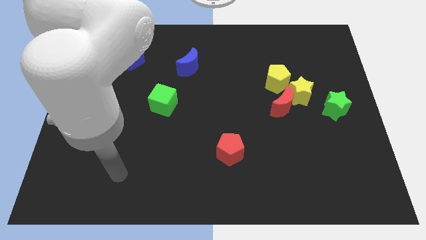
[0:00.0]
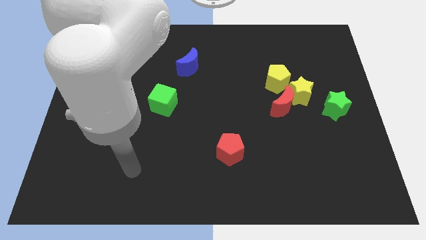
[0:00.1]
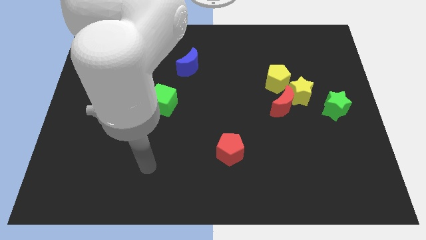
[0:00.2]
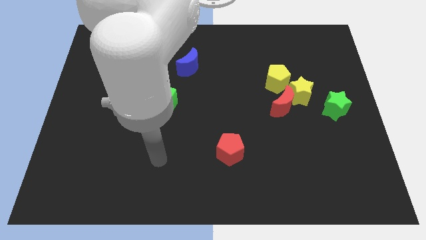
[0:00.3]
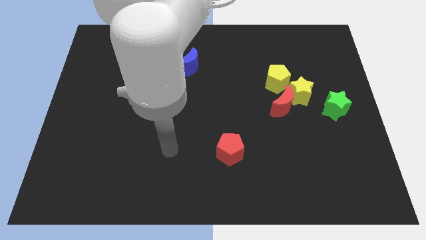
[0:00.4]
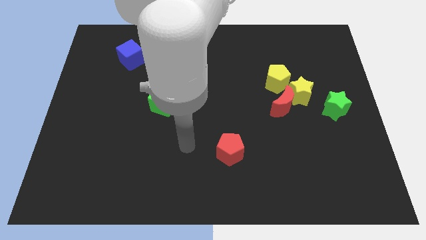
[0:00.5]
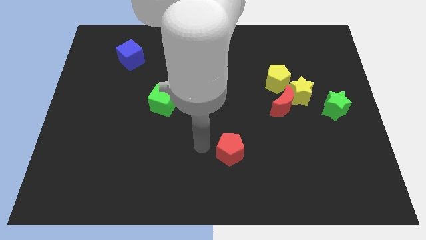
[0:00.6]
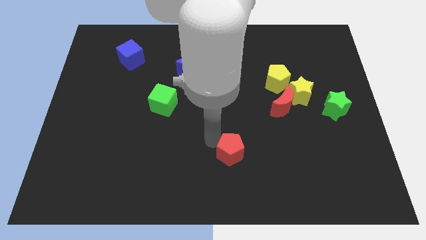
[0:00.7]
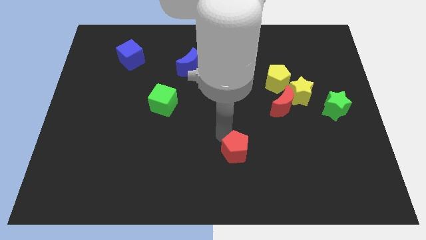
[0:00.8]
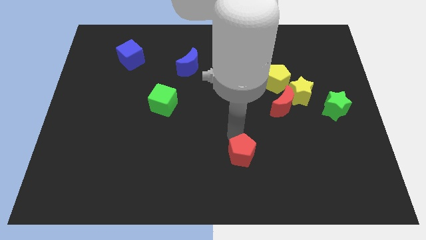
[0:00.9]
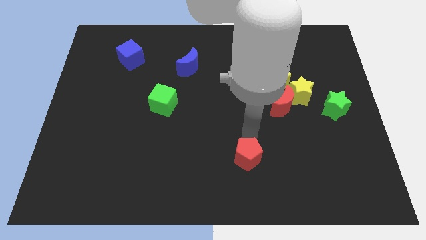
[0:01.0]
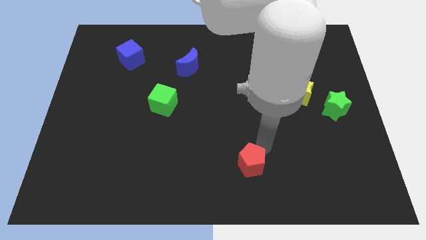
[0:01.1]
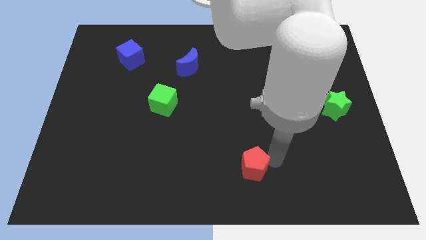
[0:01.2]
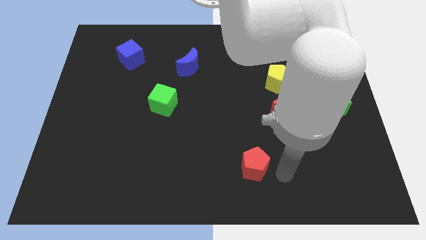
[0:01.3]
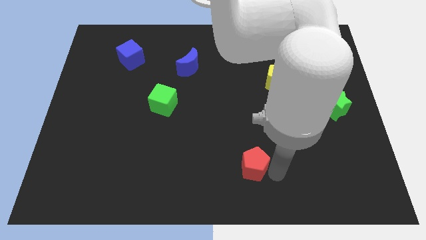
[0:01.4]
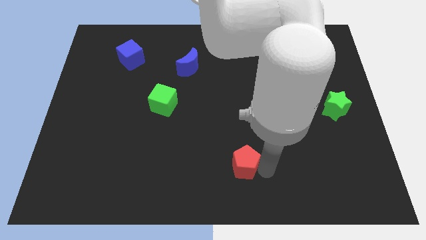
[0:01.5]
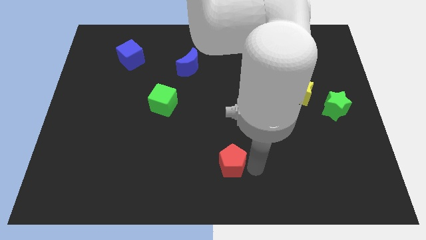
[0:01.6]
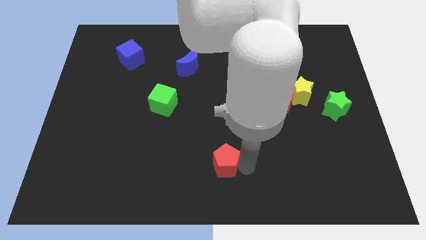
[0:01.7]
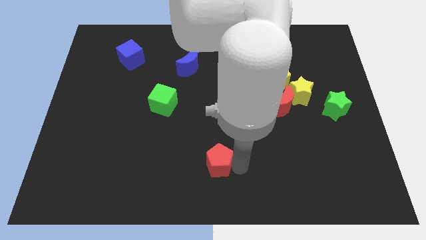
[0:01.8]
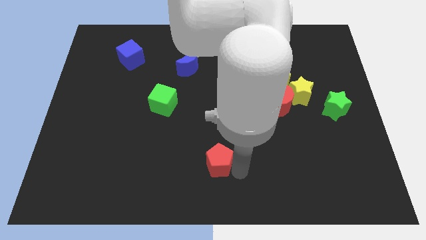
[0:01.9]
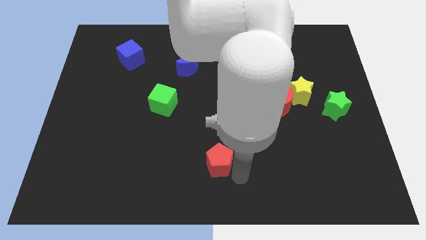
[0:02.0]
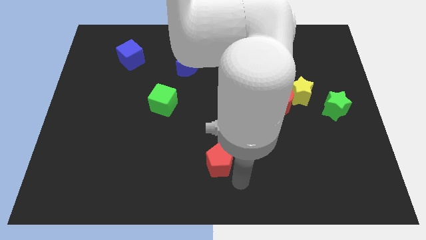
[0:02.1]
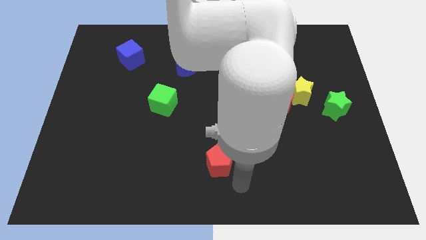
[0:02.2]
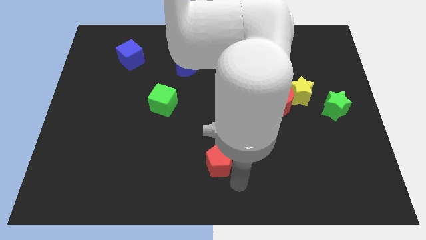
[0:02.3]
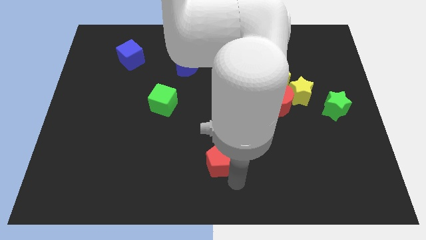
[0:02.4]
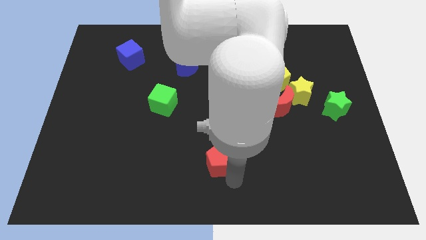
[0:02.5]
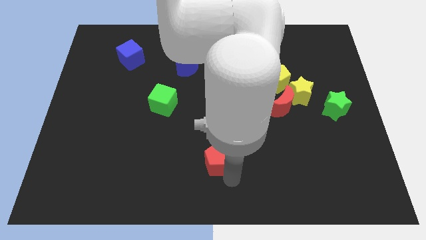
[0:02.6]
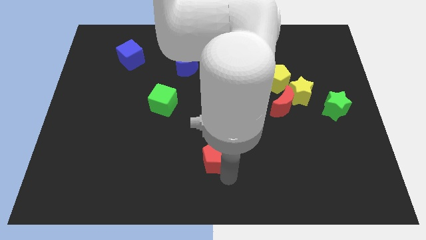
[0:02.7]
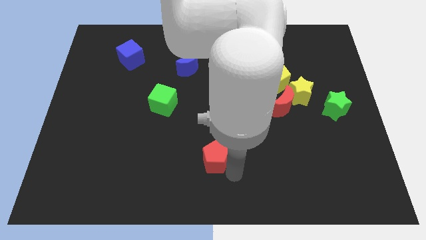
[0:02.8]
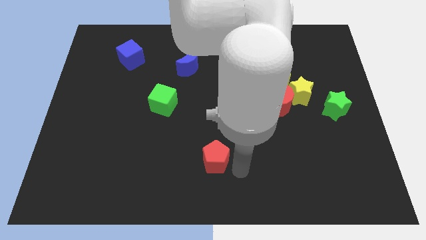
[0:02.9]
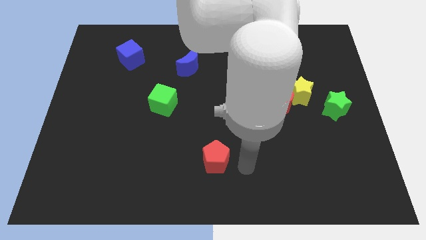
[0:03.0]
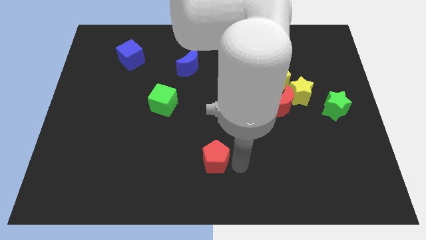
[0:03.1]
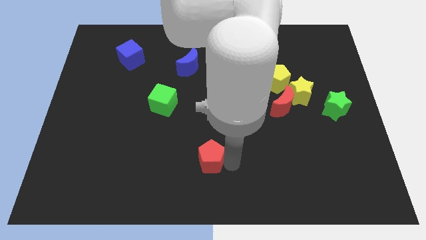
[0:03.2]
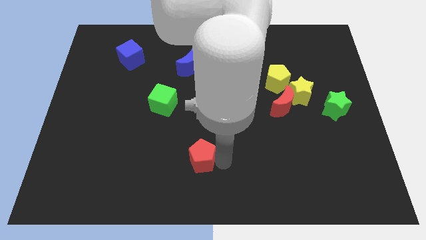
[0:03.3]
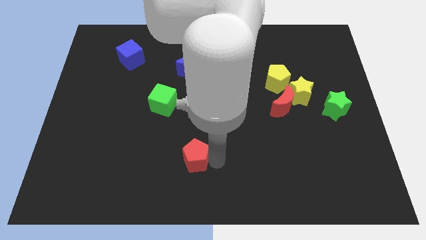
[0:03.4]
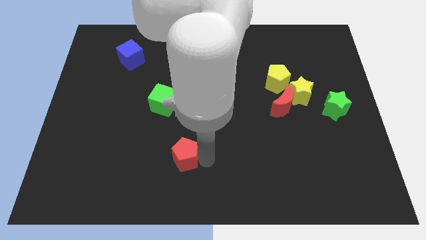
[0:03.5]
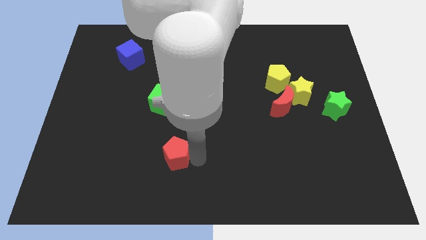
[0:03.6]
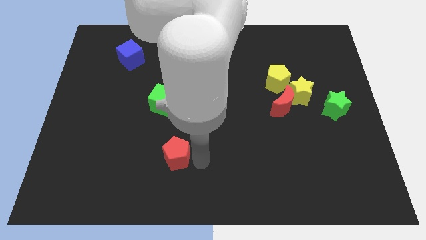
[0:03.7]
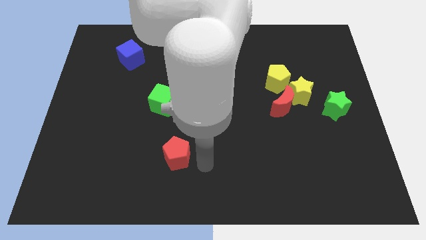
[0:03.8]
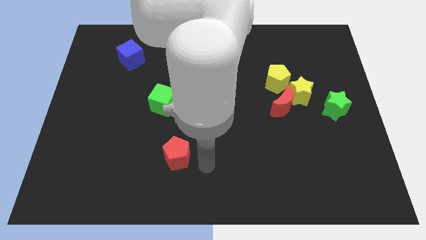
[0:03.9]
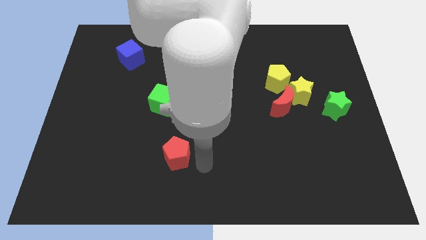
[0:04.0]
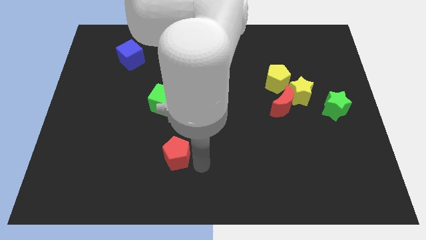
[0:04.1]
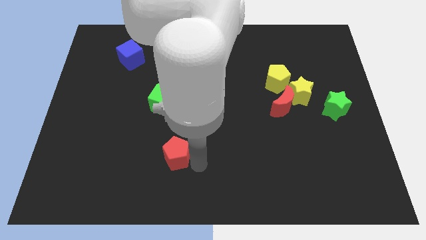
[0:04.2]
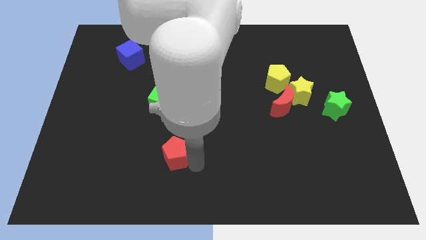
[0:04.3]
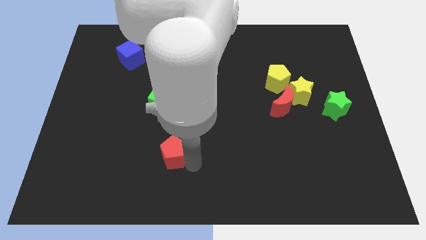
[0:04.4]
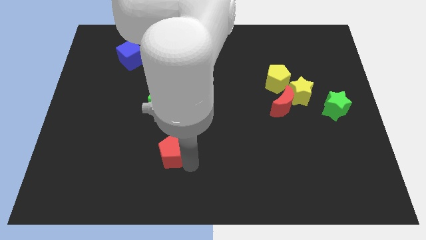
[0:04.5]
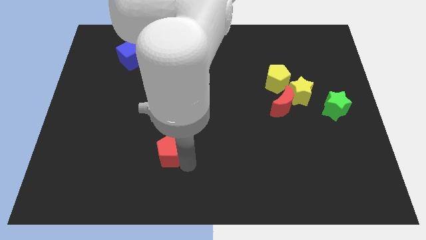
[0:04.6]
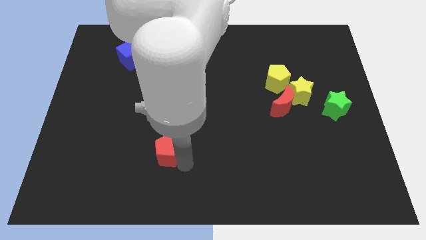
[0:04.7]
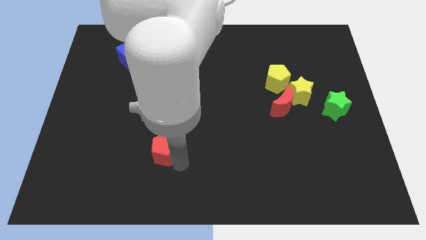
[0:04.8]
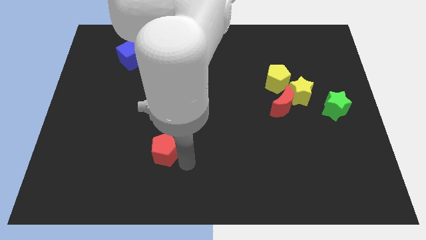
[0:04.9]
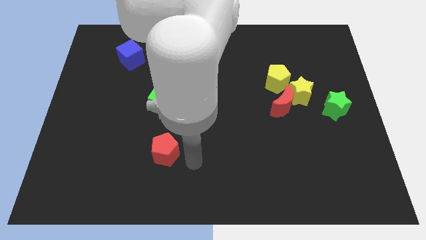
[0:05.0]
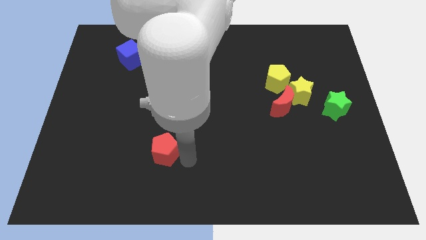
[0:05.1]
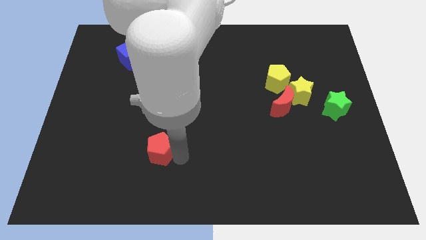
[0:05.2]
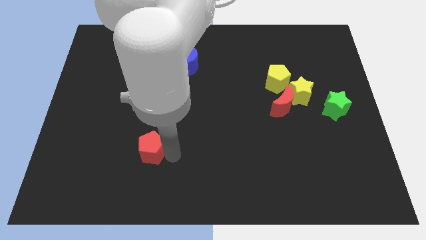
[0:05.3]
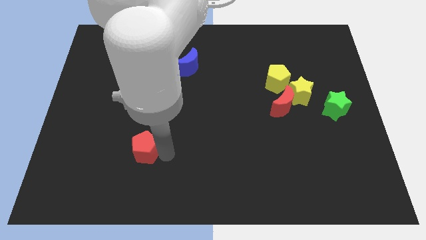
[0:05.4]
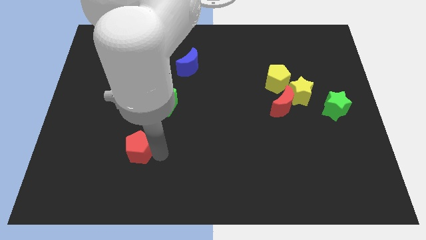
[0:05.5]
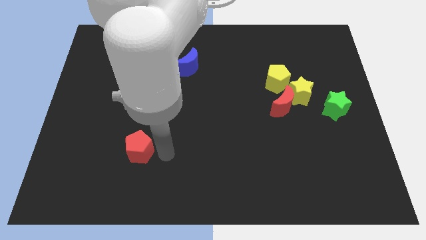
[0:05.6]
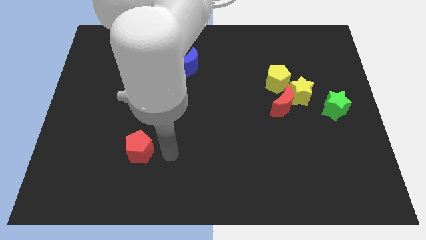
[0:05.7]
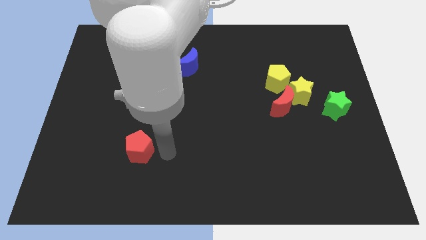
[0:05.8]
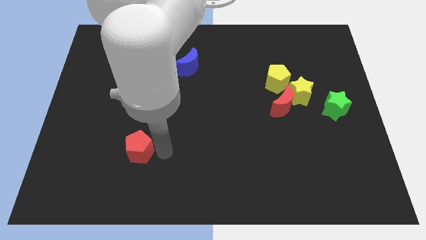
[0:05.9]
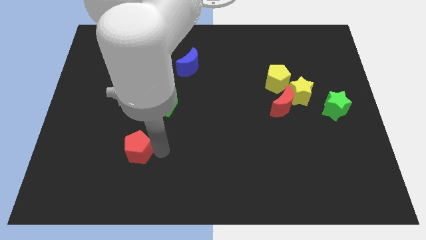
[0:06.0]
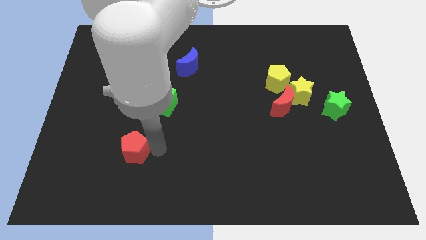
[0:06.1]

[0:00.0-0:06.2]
move the red pentagon left

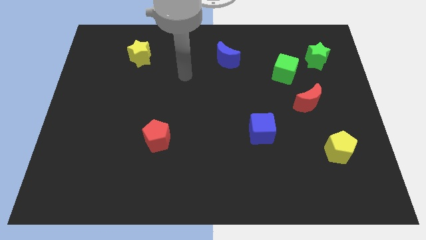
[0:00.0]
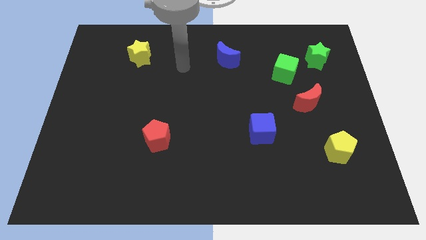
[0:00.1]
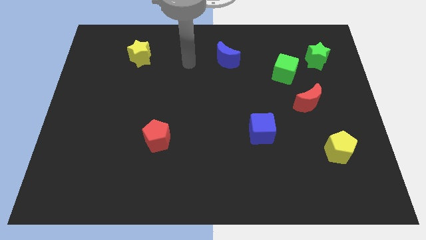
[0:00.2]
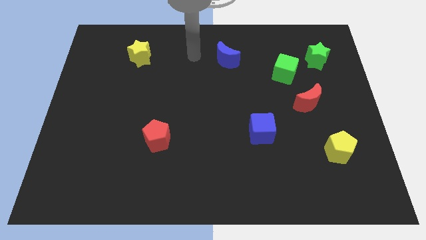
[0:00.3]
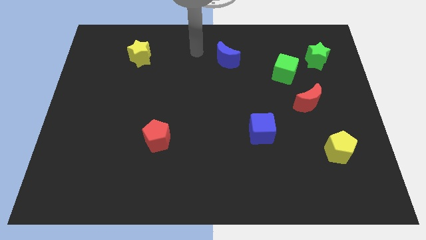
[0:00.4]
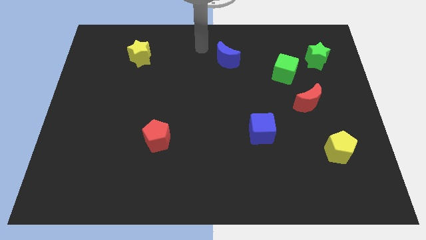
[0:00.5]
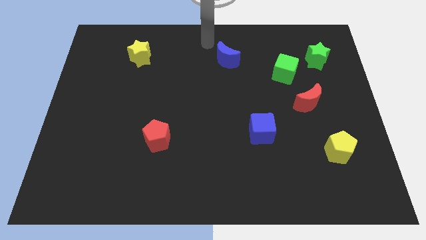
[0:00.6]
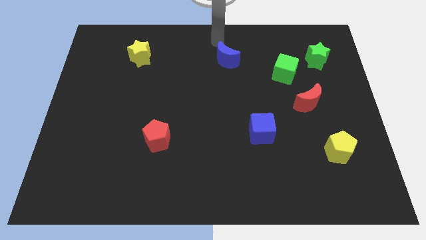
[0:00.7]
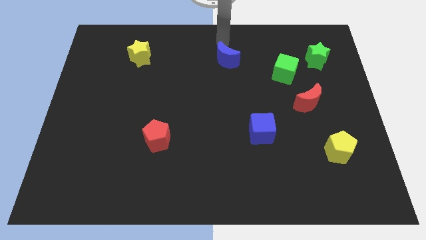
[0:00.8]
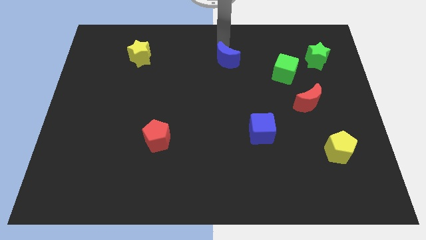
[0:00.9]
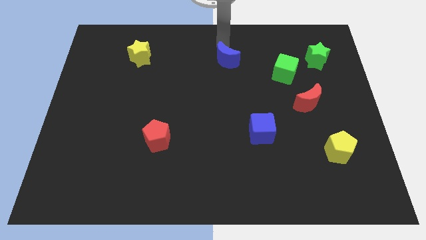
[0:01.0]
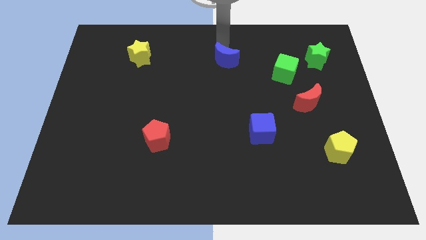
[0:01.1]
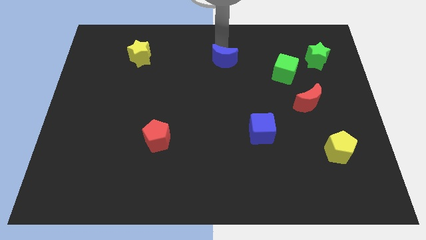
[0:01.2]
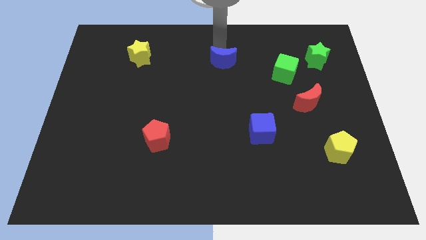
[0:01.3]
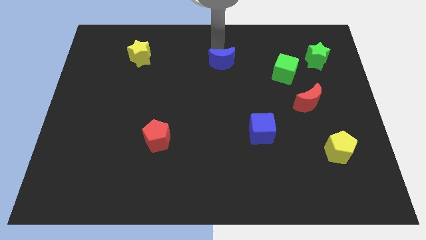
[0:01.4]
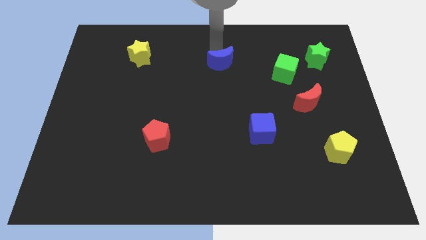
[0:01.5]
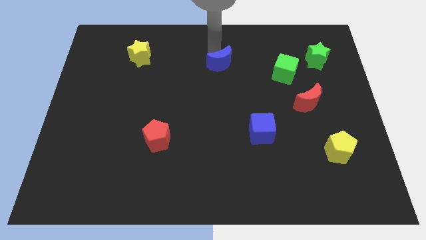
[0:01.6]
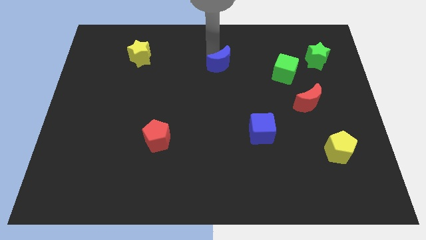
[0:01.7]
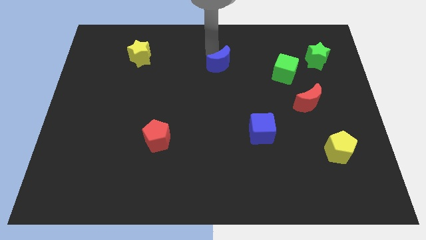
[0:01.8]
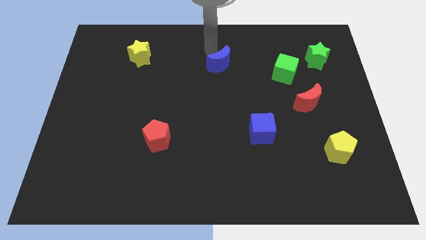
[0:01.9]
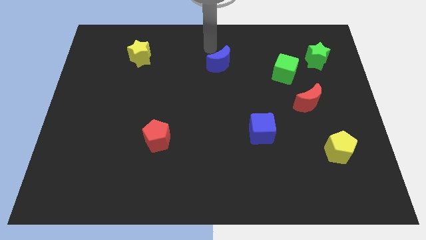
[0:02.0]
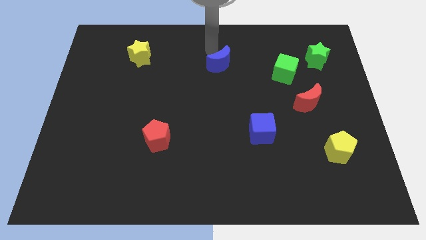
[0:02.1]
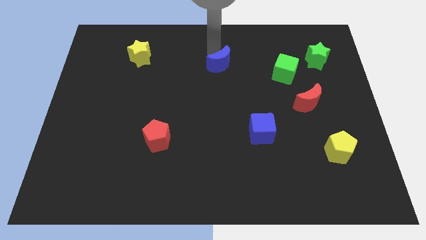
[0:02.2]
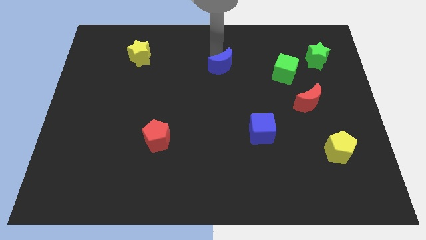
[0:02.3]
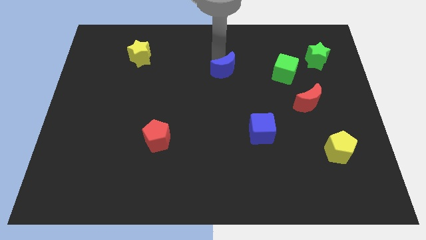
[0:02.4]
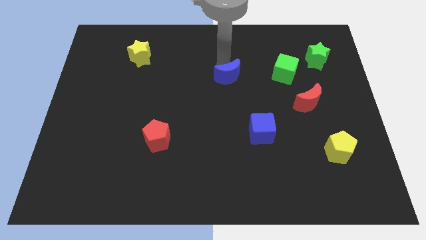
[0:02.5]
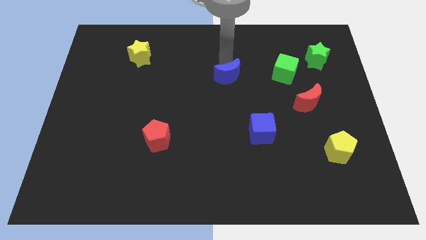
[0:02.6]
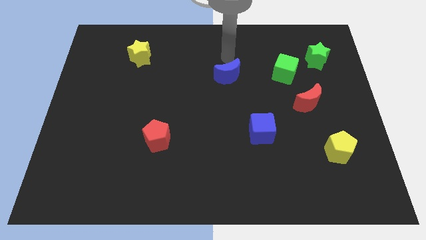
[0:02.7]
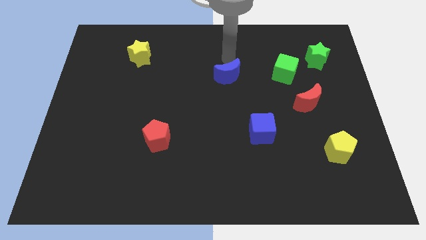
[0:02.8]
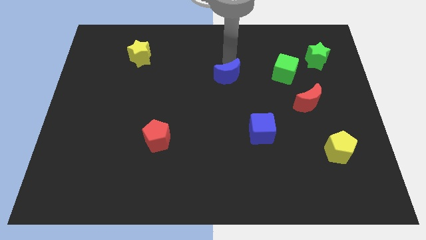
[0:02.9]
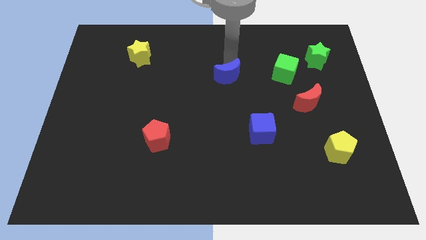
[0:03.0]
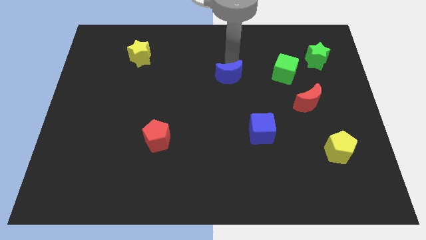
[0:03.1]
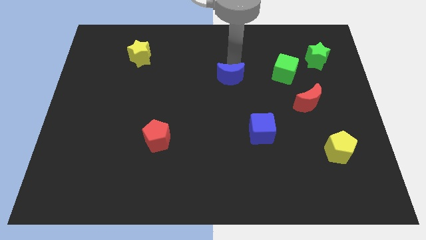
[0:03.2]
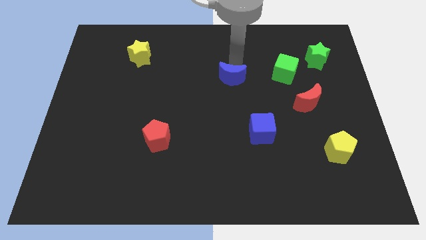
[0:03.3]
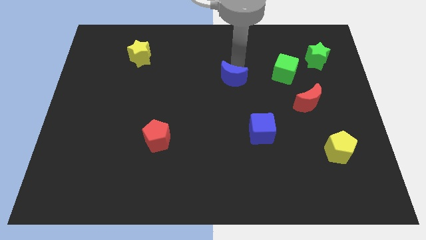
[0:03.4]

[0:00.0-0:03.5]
slightly slide the blue moon downwards
